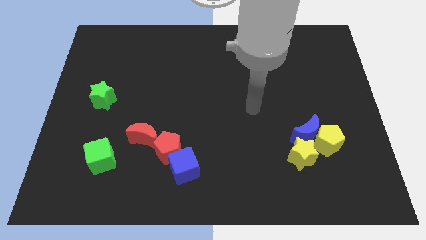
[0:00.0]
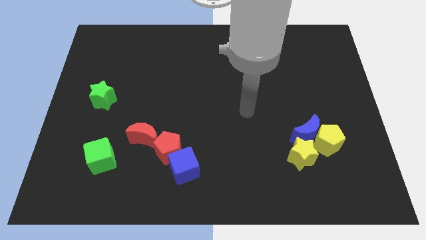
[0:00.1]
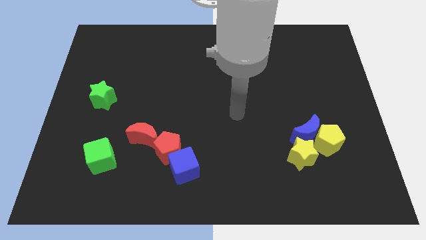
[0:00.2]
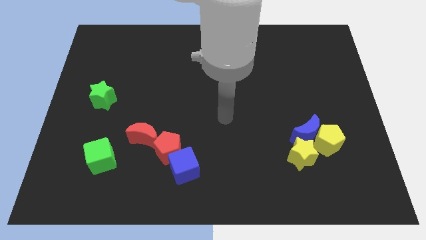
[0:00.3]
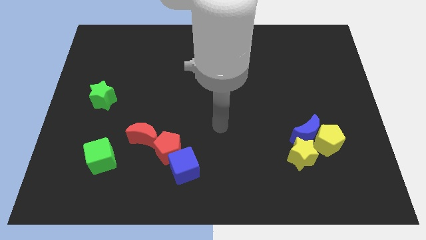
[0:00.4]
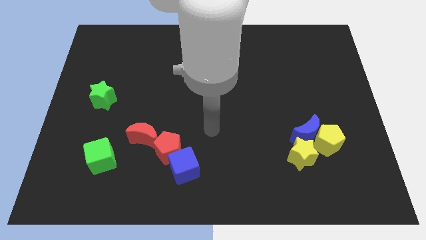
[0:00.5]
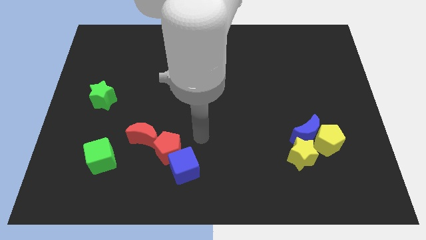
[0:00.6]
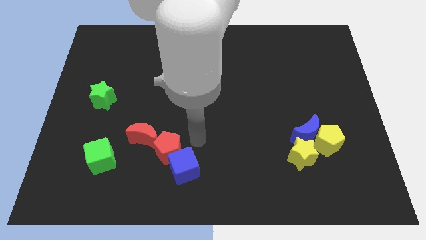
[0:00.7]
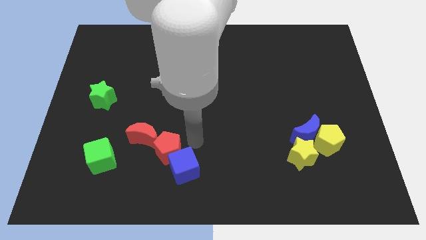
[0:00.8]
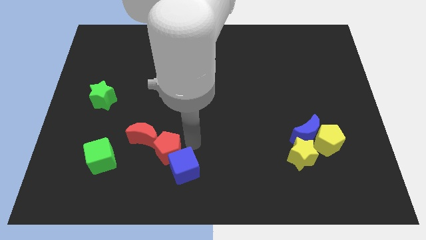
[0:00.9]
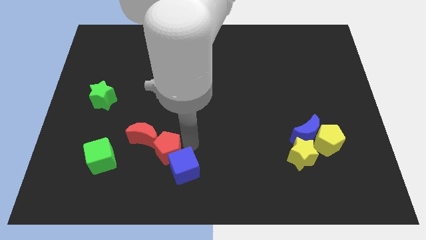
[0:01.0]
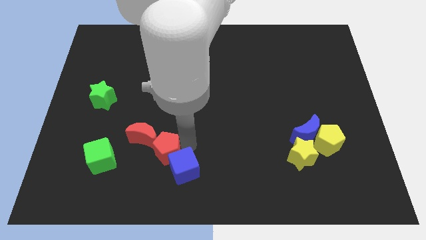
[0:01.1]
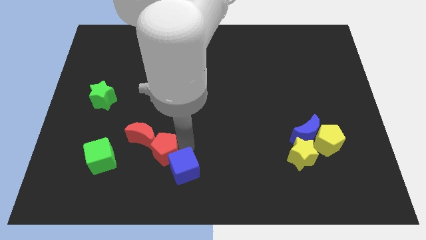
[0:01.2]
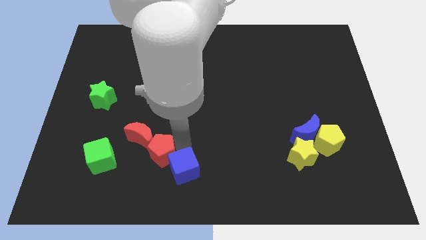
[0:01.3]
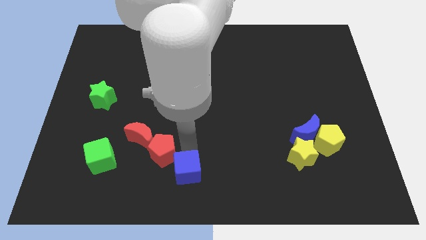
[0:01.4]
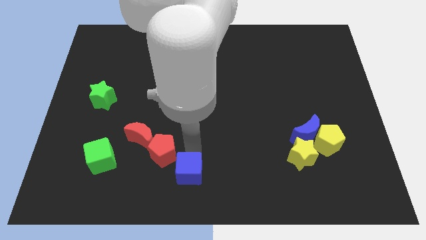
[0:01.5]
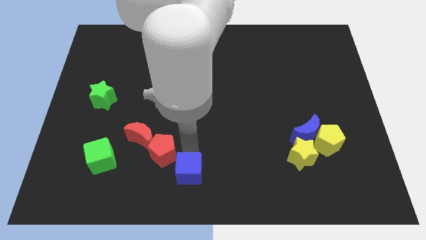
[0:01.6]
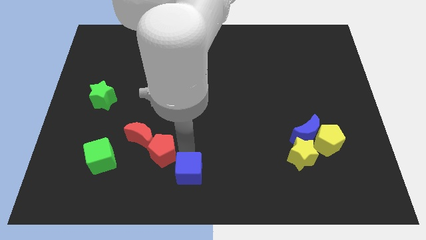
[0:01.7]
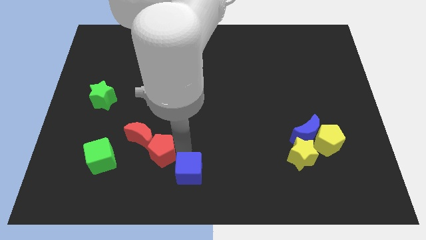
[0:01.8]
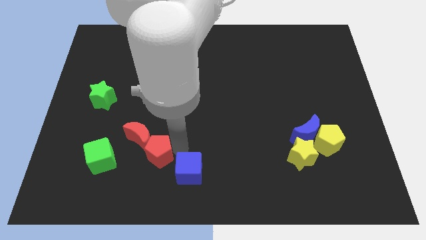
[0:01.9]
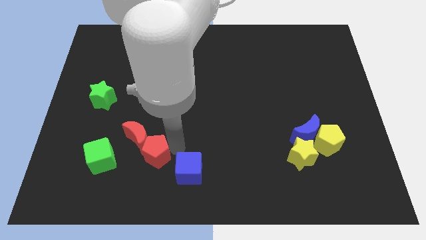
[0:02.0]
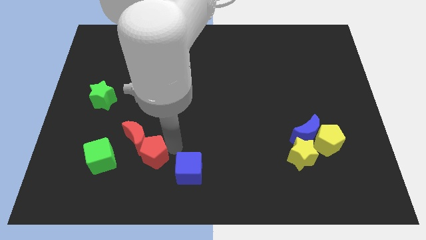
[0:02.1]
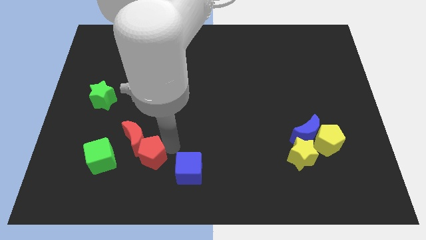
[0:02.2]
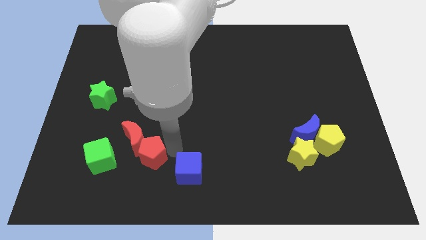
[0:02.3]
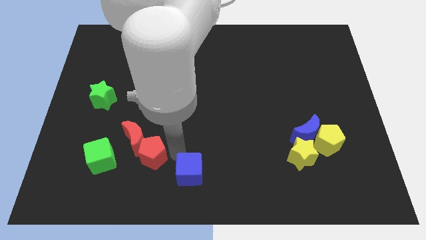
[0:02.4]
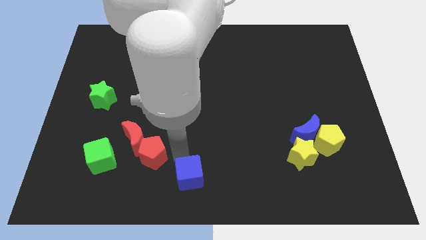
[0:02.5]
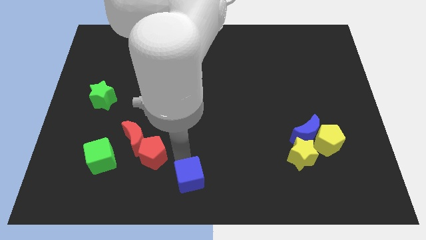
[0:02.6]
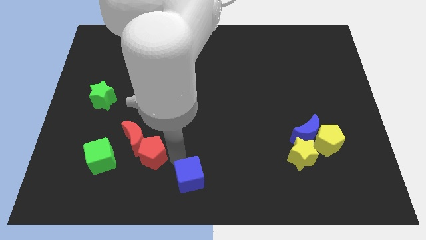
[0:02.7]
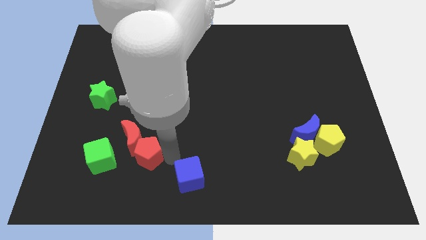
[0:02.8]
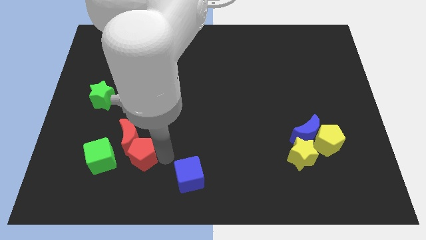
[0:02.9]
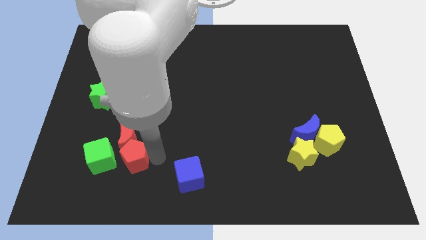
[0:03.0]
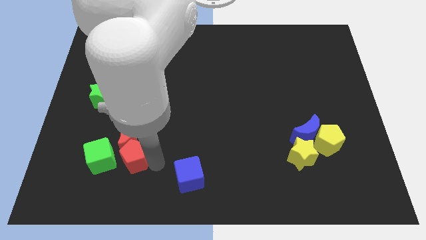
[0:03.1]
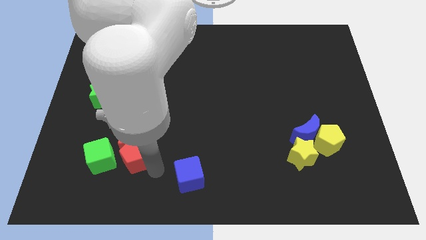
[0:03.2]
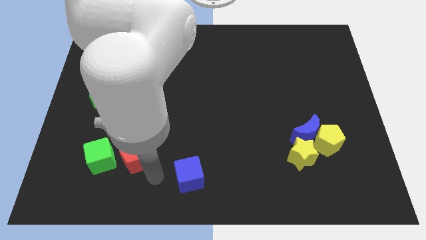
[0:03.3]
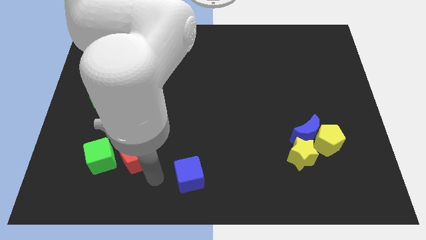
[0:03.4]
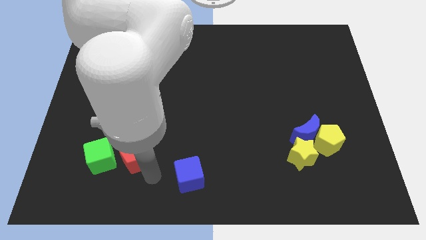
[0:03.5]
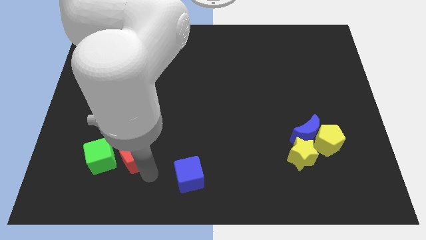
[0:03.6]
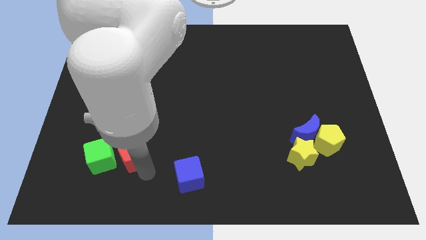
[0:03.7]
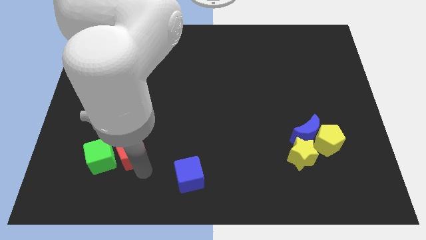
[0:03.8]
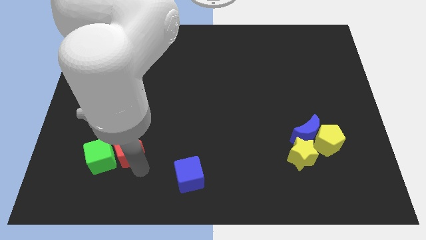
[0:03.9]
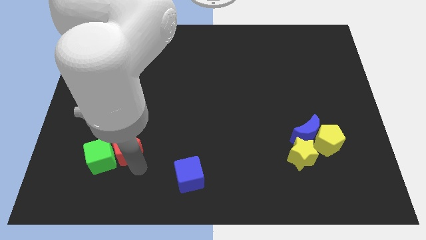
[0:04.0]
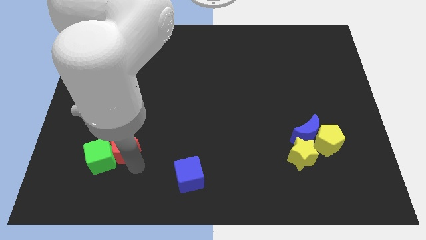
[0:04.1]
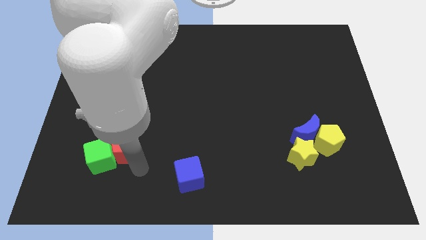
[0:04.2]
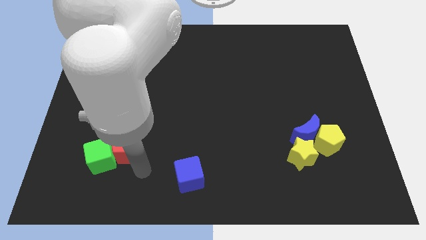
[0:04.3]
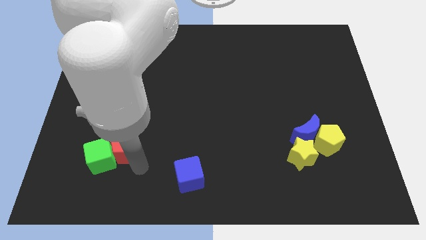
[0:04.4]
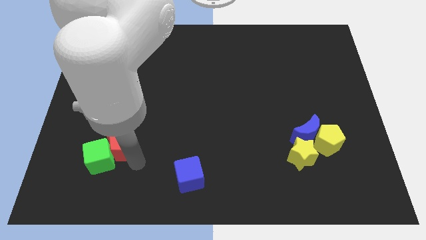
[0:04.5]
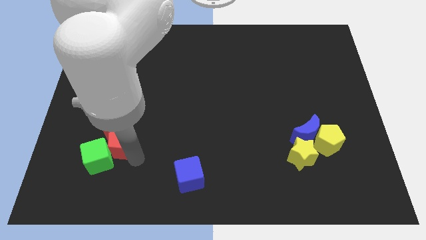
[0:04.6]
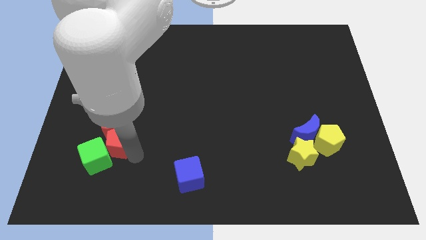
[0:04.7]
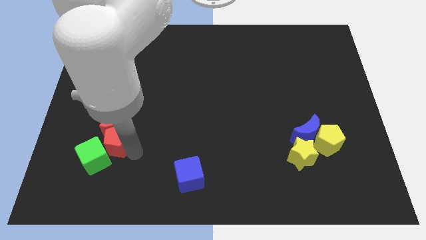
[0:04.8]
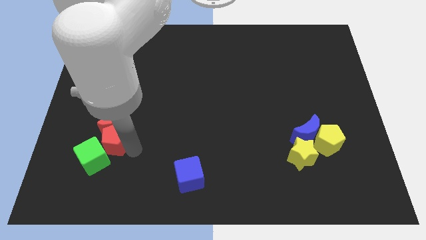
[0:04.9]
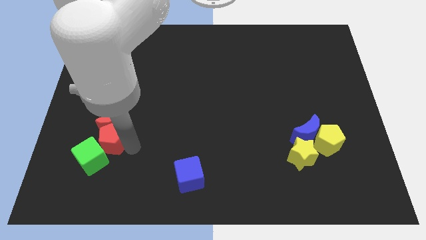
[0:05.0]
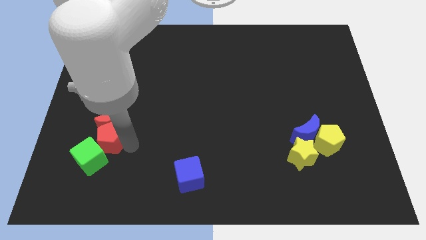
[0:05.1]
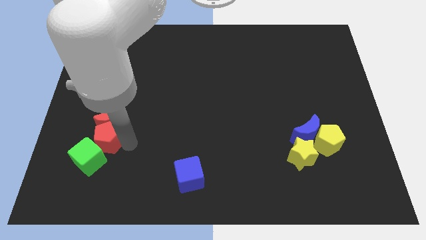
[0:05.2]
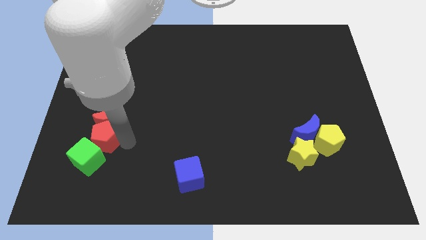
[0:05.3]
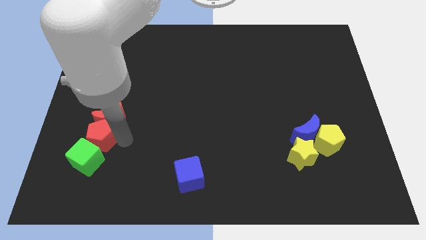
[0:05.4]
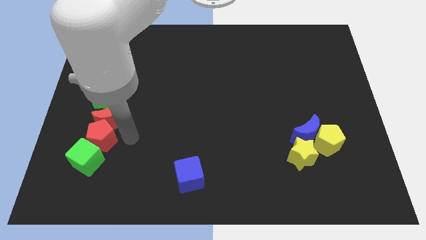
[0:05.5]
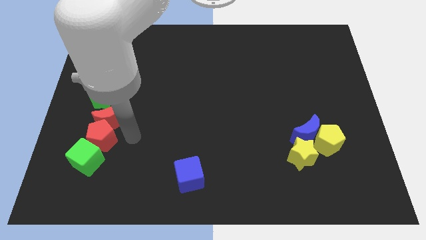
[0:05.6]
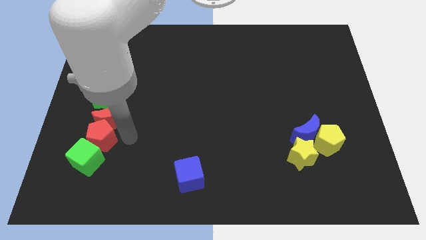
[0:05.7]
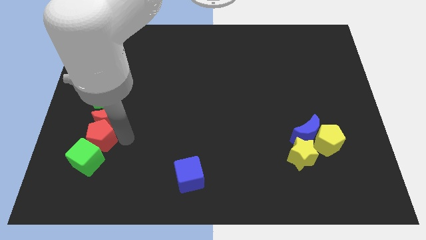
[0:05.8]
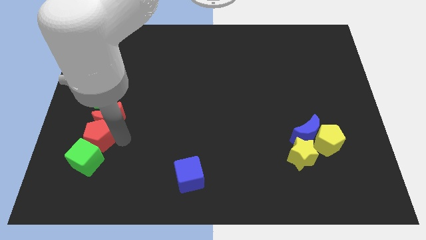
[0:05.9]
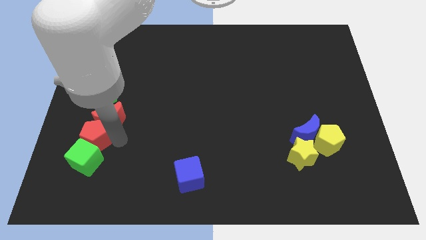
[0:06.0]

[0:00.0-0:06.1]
move the red pentagon to the top left of the green cube

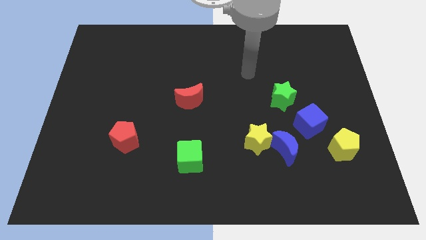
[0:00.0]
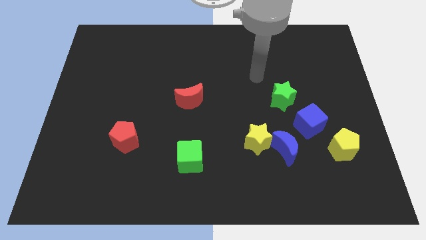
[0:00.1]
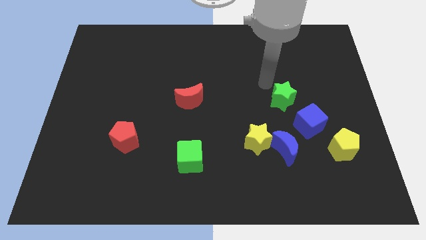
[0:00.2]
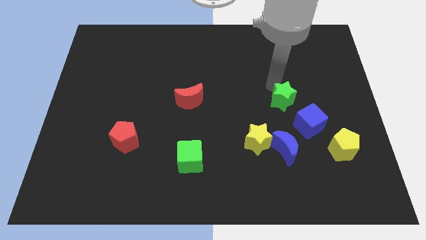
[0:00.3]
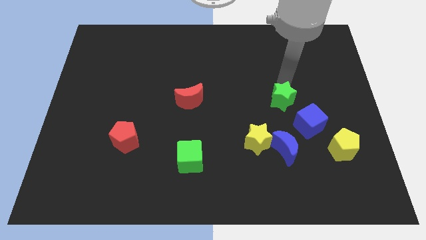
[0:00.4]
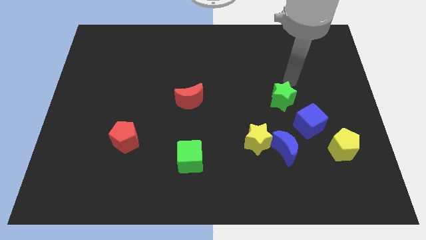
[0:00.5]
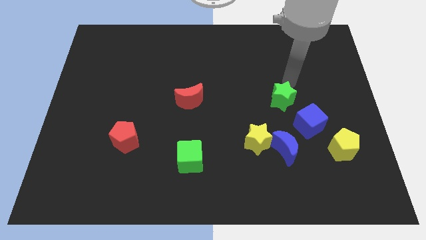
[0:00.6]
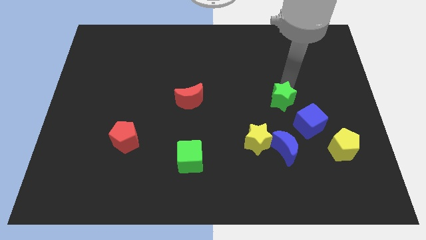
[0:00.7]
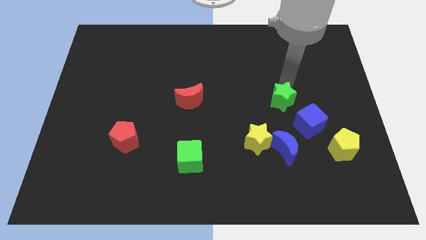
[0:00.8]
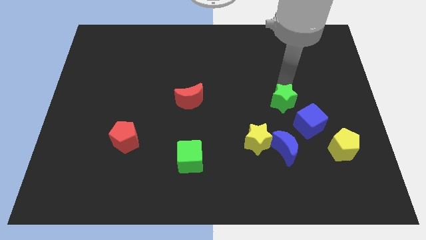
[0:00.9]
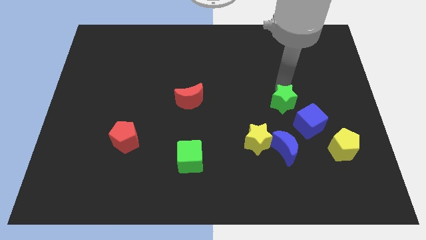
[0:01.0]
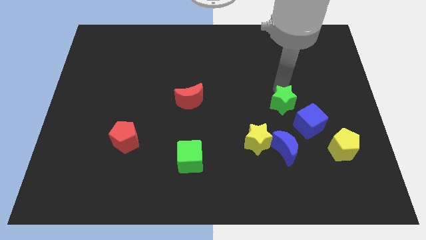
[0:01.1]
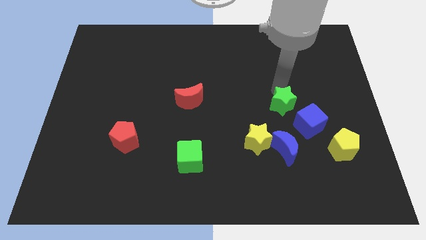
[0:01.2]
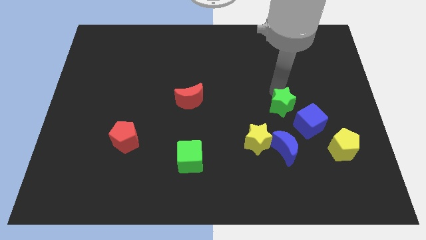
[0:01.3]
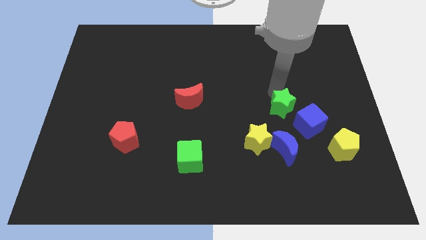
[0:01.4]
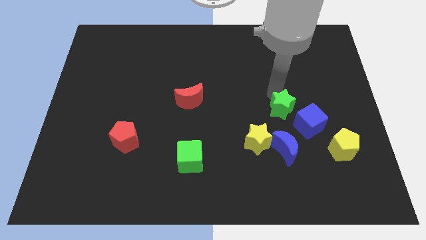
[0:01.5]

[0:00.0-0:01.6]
move the green star left of the blue cube
